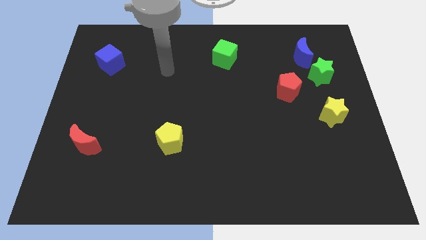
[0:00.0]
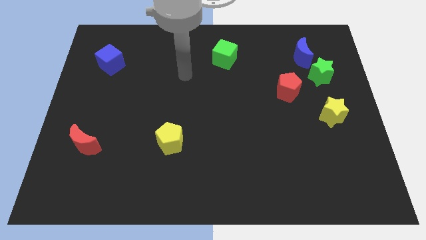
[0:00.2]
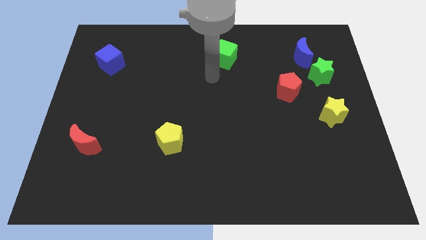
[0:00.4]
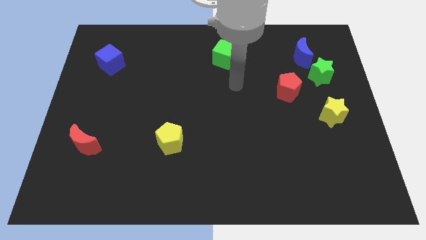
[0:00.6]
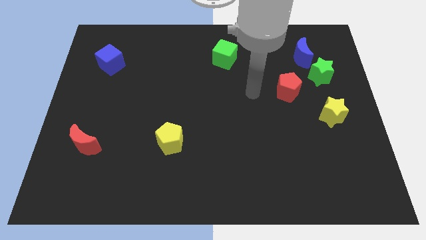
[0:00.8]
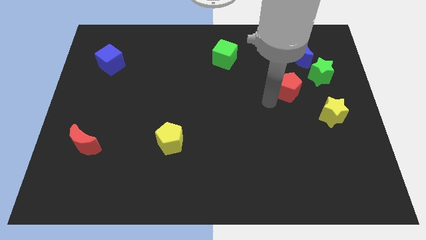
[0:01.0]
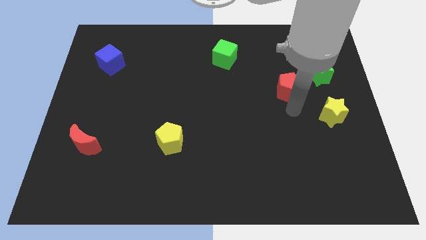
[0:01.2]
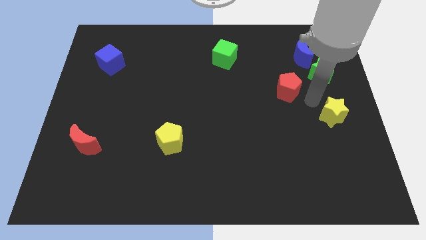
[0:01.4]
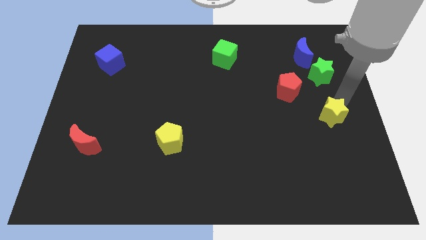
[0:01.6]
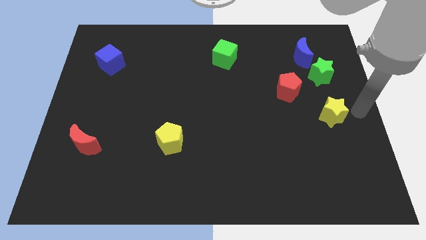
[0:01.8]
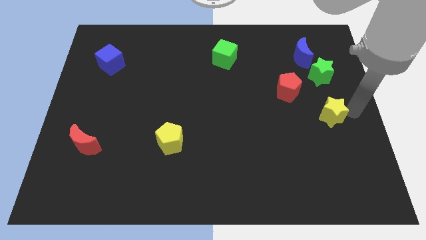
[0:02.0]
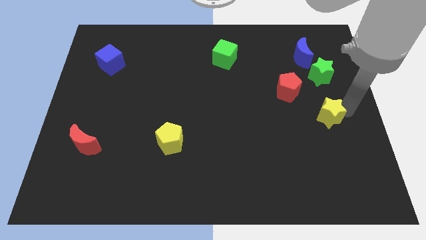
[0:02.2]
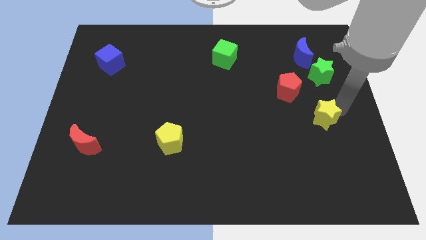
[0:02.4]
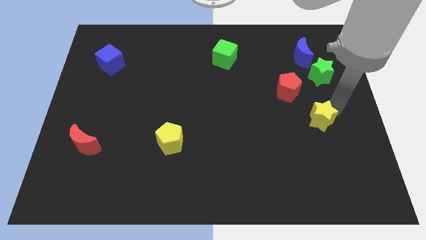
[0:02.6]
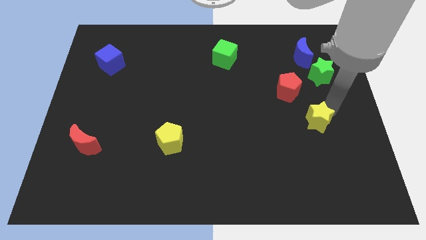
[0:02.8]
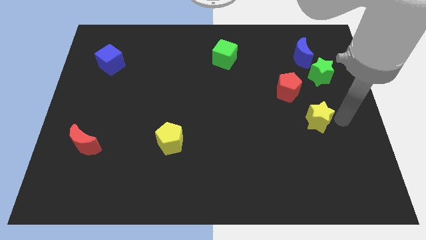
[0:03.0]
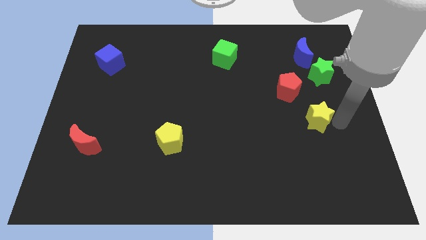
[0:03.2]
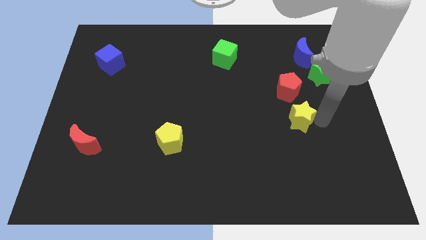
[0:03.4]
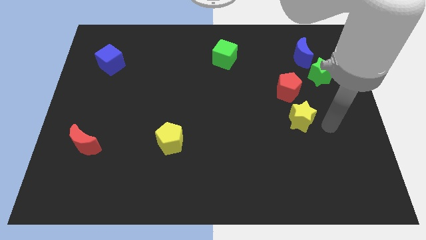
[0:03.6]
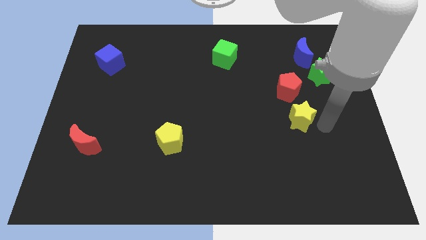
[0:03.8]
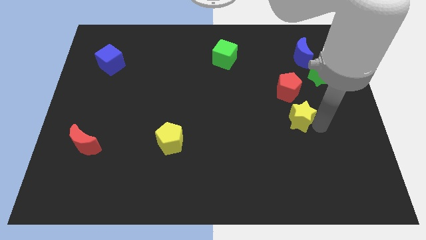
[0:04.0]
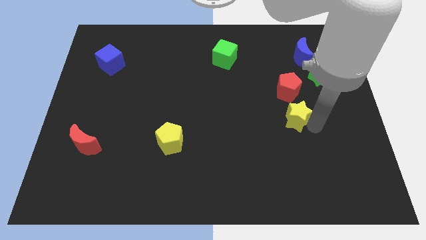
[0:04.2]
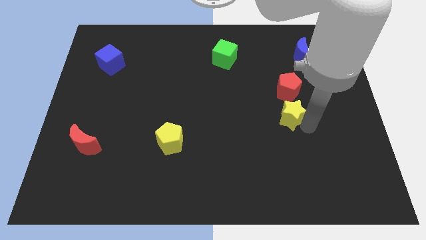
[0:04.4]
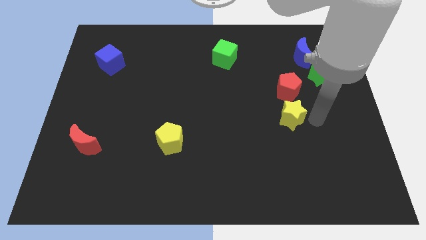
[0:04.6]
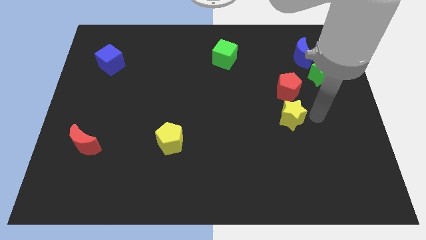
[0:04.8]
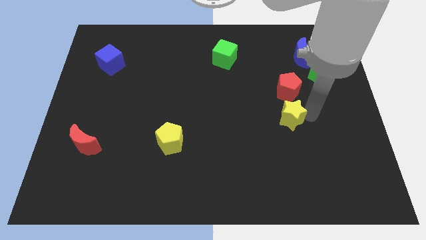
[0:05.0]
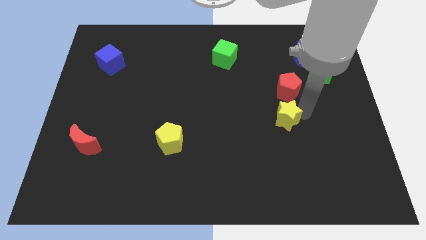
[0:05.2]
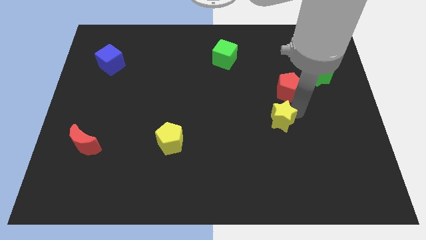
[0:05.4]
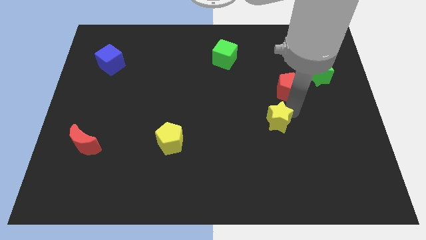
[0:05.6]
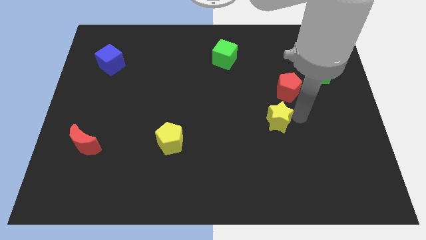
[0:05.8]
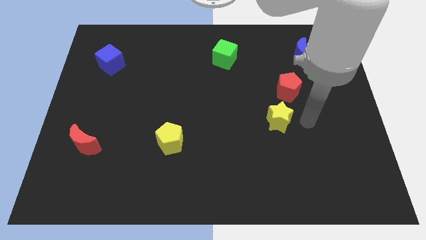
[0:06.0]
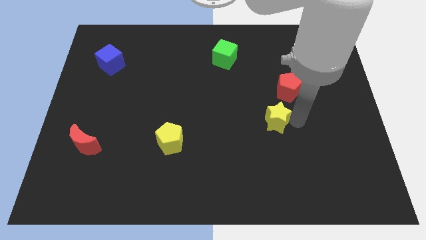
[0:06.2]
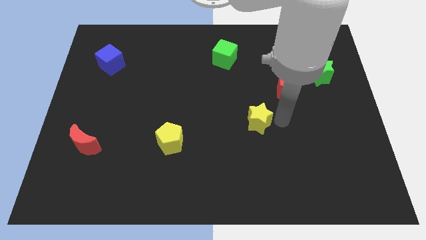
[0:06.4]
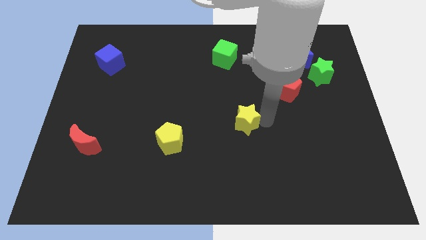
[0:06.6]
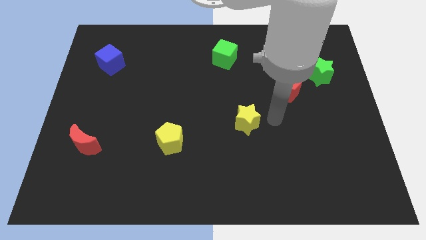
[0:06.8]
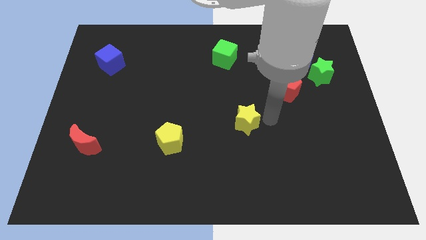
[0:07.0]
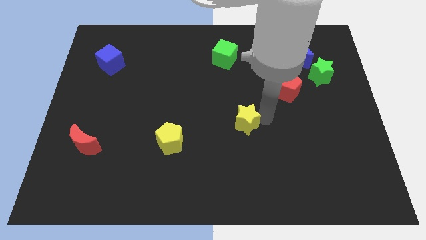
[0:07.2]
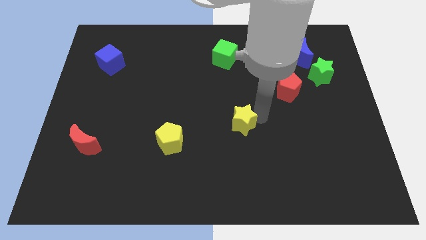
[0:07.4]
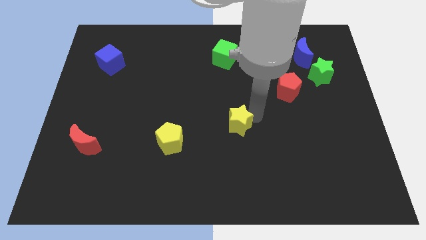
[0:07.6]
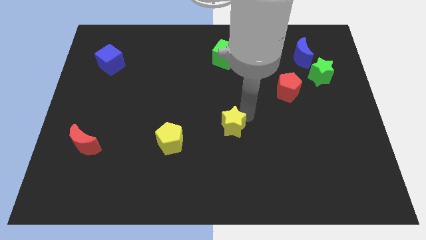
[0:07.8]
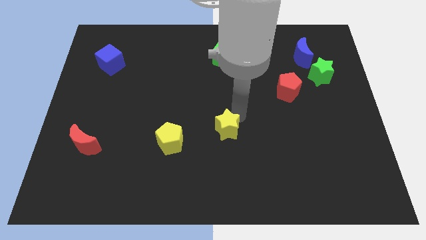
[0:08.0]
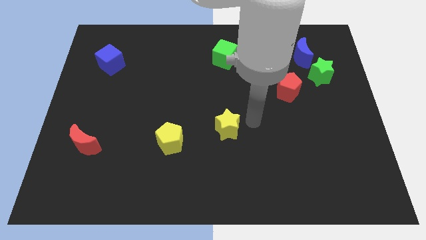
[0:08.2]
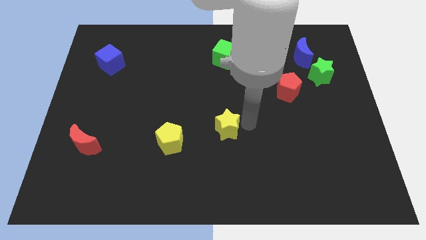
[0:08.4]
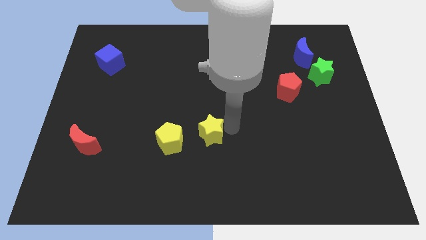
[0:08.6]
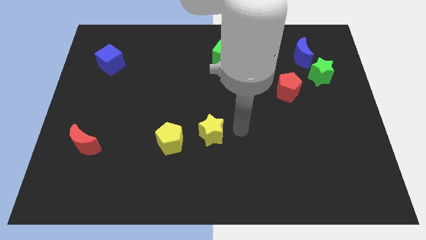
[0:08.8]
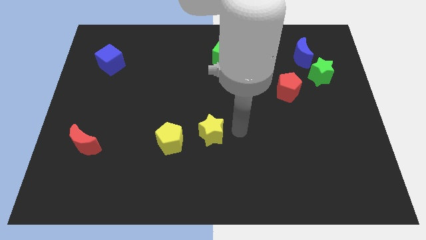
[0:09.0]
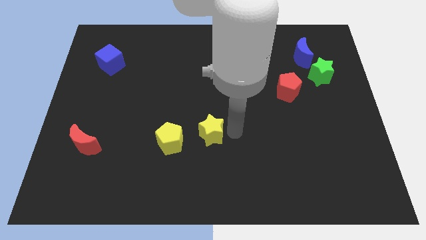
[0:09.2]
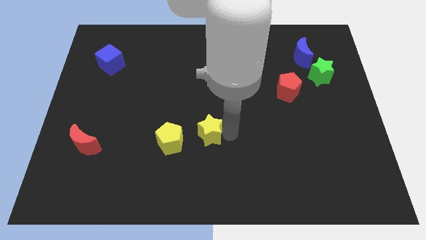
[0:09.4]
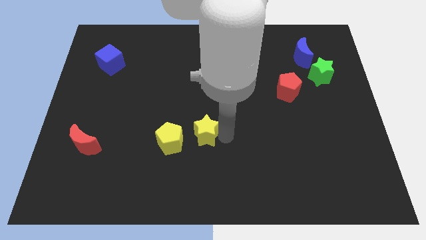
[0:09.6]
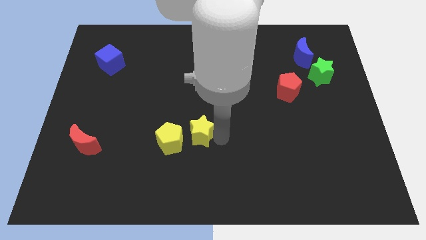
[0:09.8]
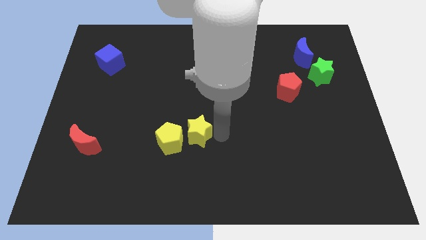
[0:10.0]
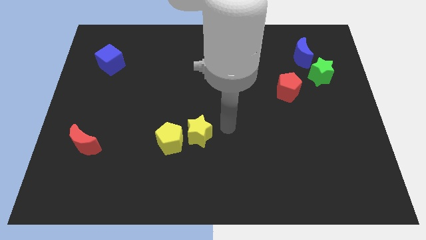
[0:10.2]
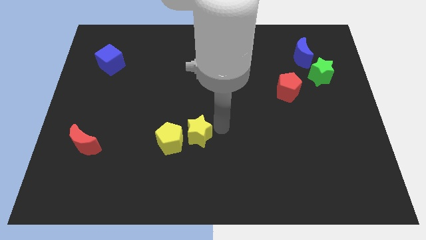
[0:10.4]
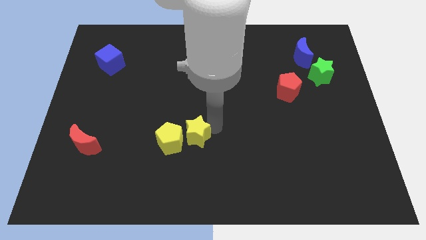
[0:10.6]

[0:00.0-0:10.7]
put the yellow star next to the yellow pentagon

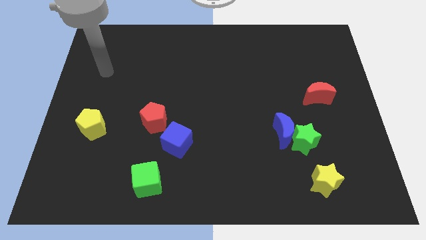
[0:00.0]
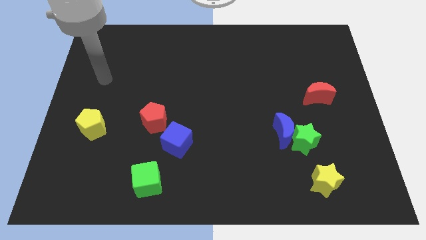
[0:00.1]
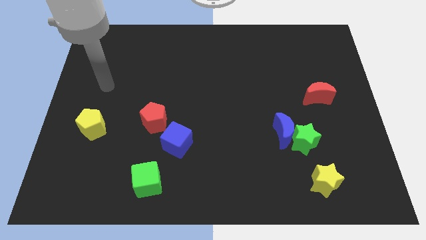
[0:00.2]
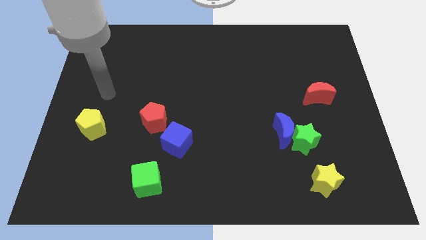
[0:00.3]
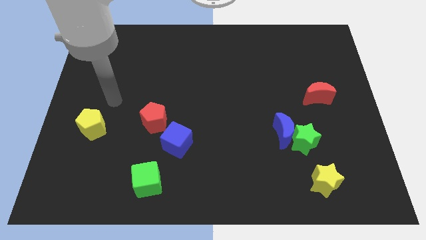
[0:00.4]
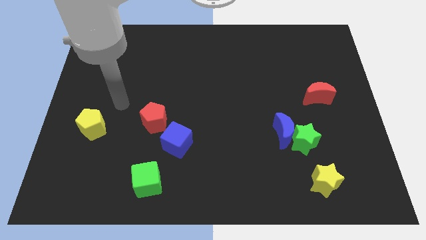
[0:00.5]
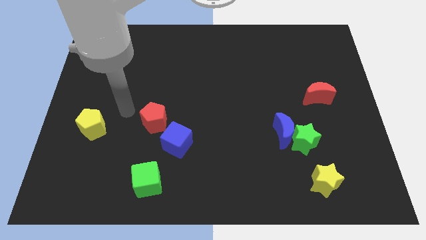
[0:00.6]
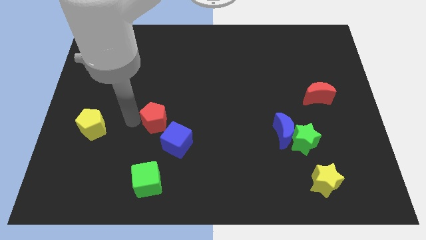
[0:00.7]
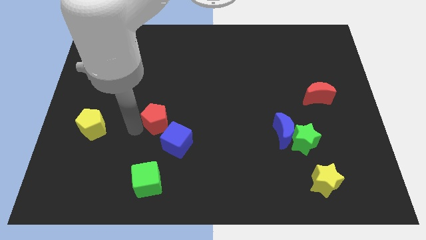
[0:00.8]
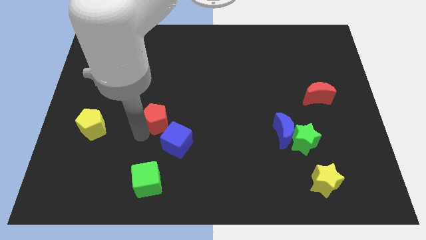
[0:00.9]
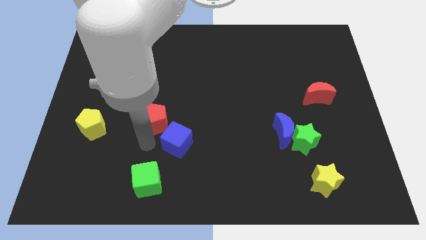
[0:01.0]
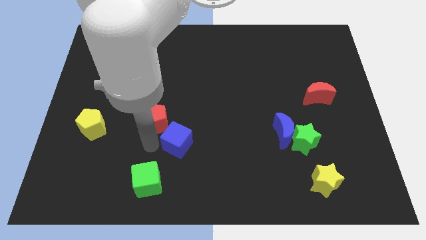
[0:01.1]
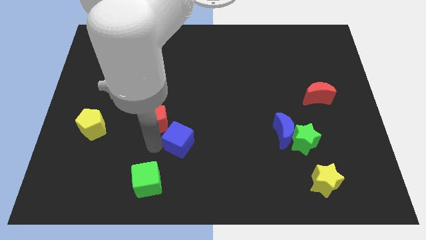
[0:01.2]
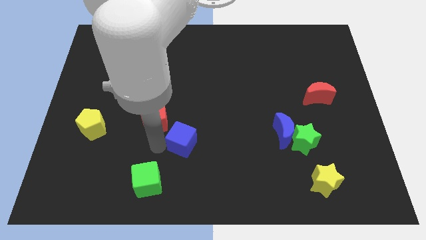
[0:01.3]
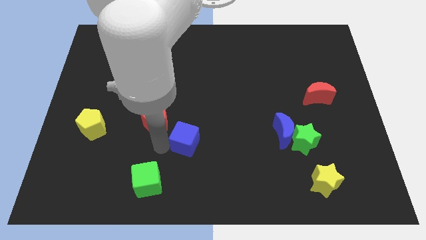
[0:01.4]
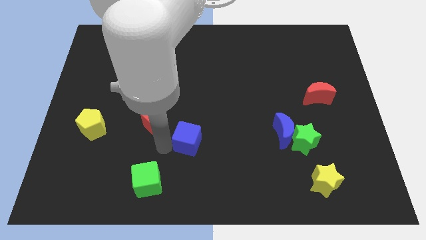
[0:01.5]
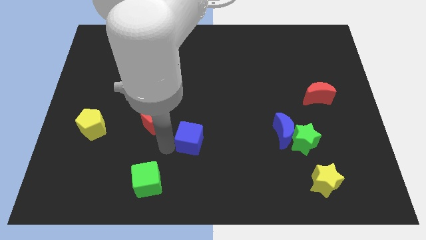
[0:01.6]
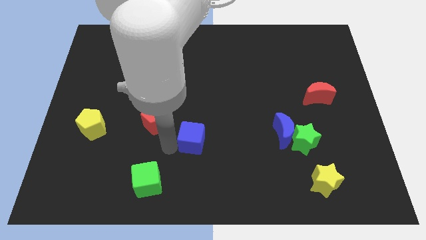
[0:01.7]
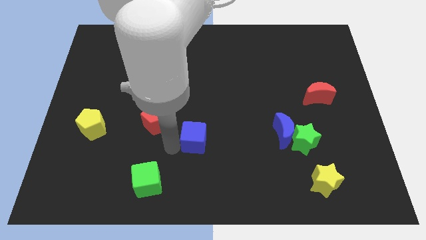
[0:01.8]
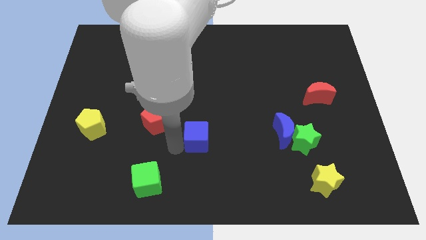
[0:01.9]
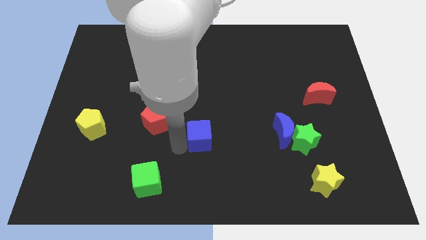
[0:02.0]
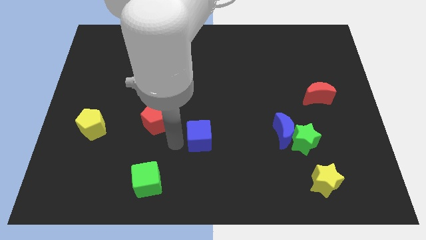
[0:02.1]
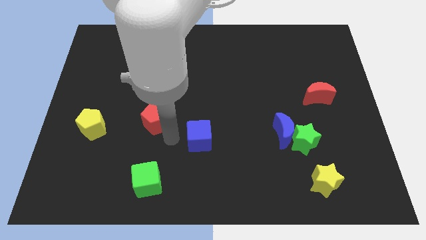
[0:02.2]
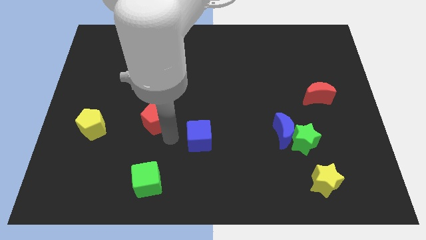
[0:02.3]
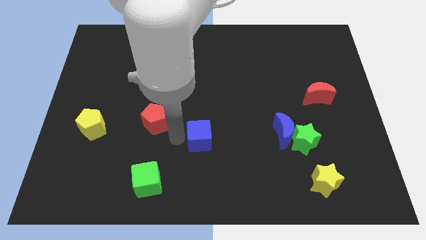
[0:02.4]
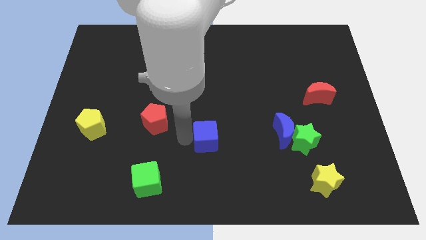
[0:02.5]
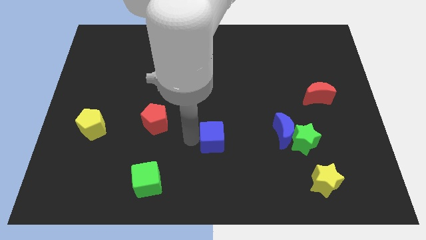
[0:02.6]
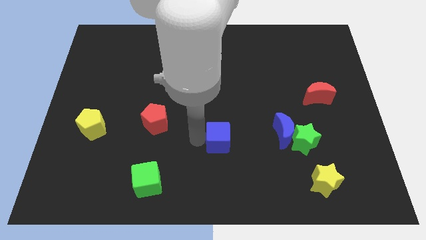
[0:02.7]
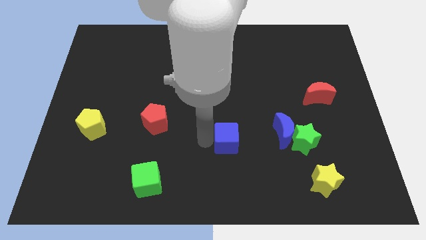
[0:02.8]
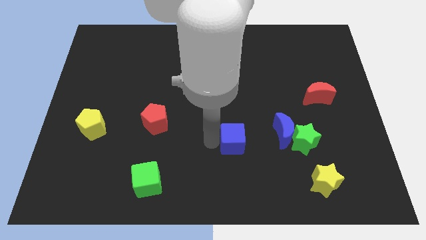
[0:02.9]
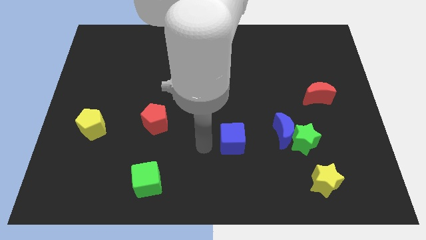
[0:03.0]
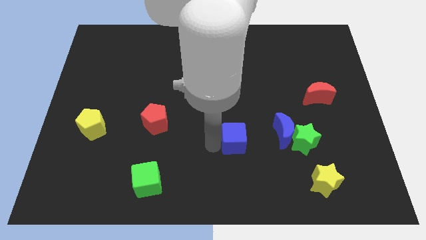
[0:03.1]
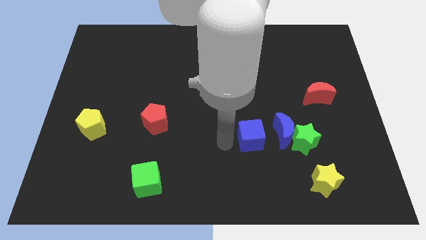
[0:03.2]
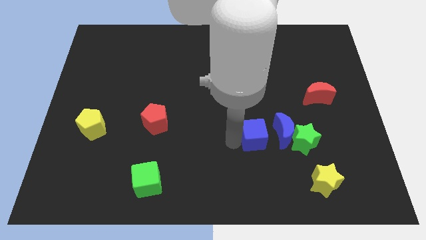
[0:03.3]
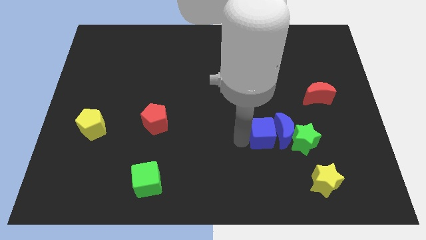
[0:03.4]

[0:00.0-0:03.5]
push the blue cube to the blue moon
